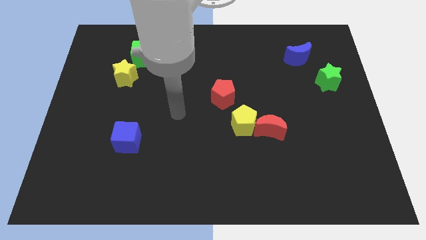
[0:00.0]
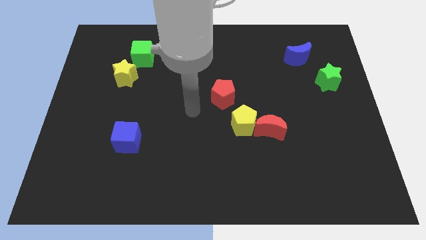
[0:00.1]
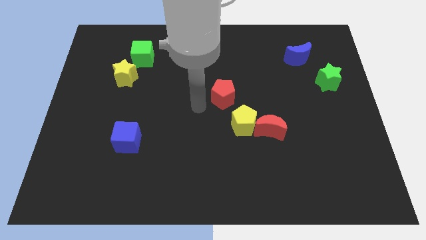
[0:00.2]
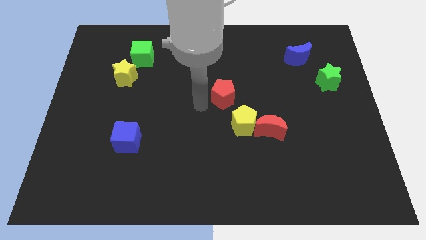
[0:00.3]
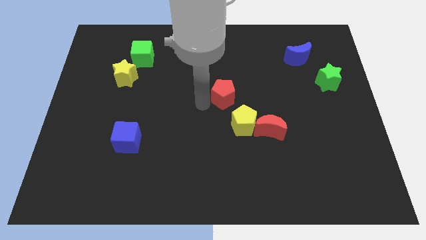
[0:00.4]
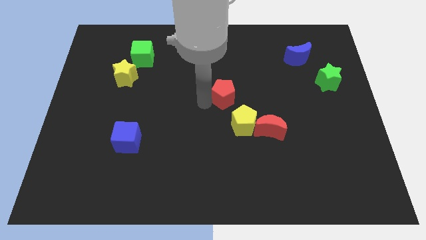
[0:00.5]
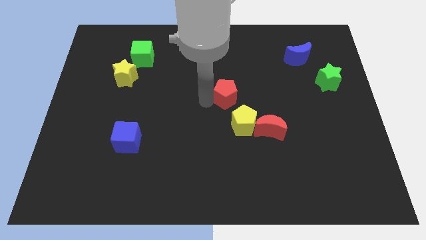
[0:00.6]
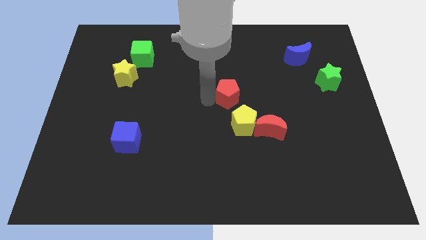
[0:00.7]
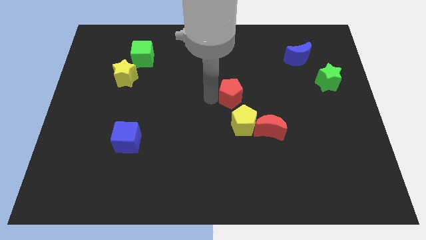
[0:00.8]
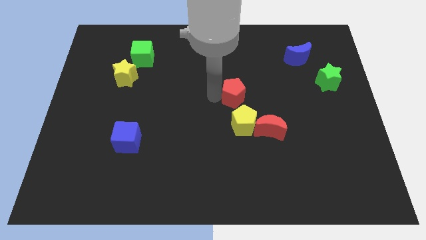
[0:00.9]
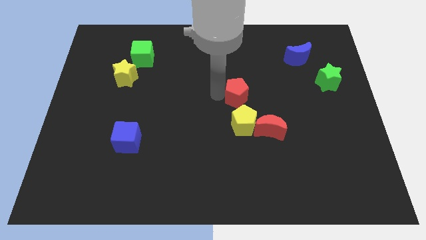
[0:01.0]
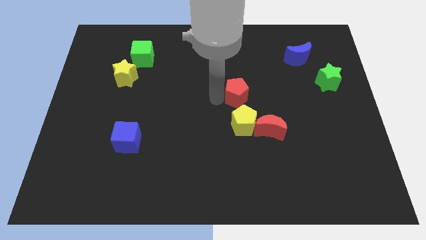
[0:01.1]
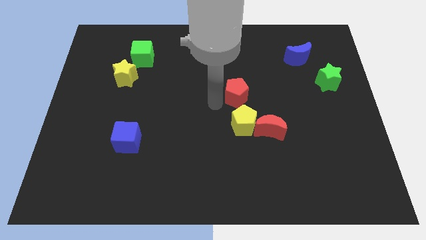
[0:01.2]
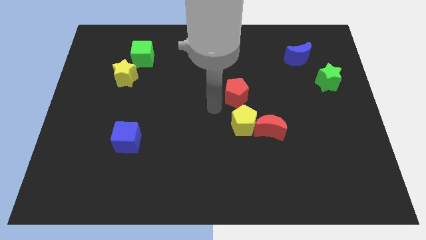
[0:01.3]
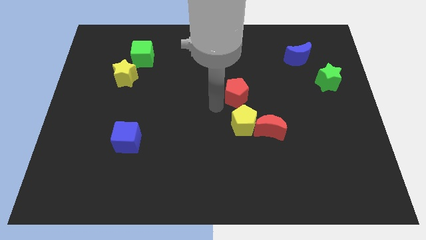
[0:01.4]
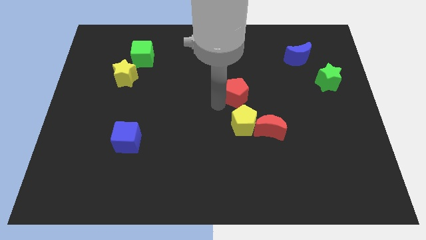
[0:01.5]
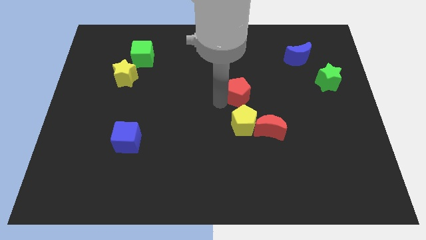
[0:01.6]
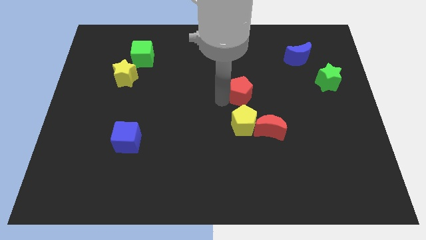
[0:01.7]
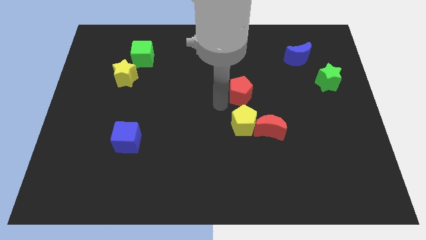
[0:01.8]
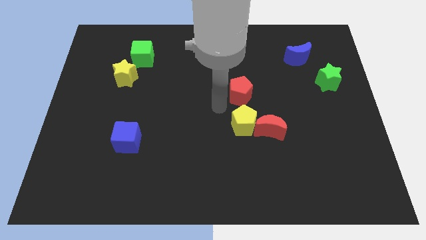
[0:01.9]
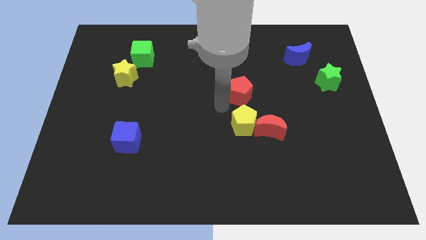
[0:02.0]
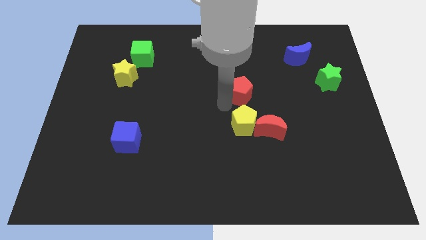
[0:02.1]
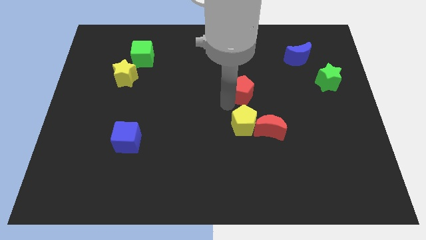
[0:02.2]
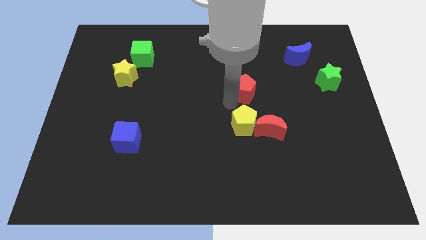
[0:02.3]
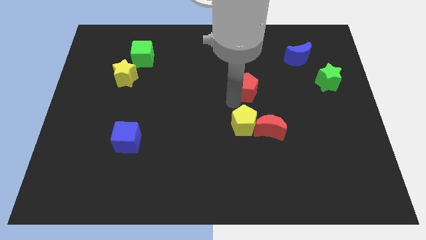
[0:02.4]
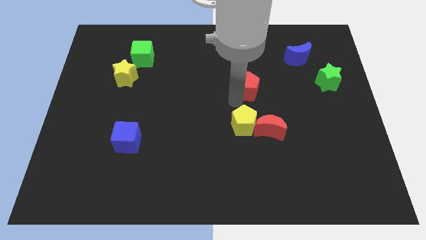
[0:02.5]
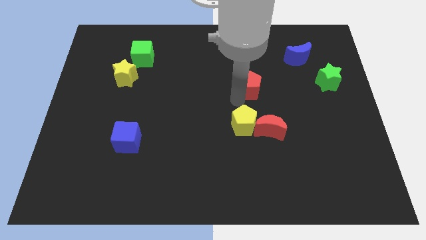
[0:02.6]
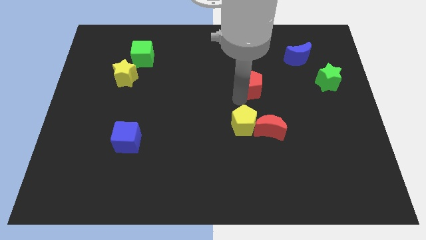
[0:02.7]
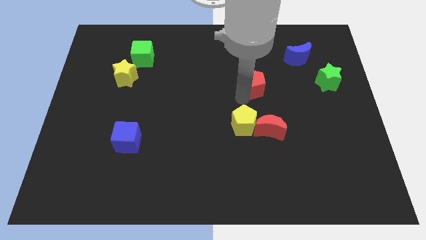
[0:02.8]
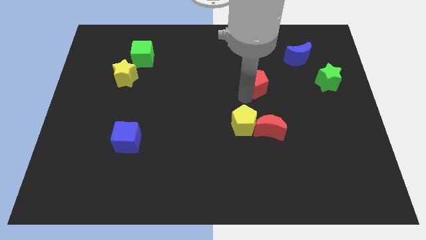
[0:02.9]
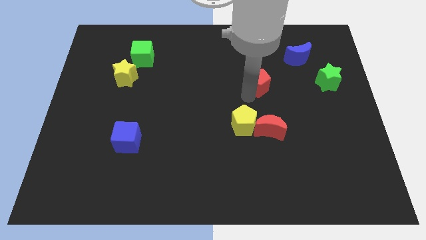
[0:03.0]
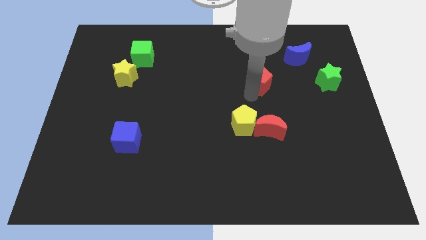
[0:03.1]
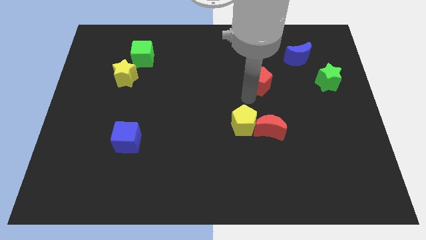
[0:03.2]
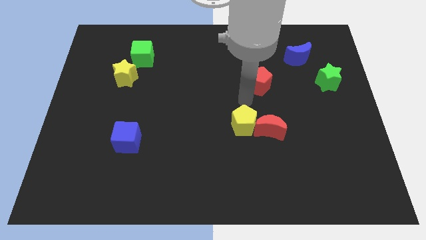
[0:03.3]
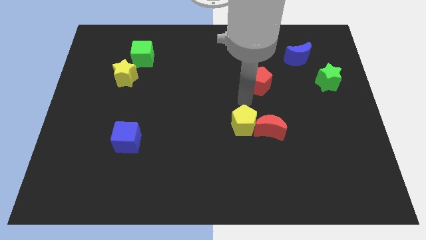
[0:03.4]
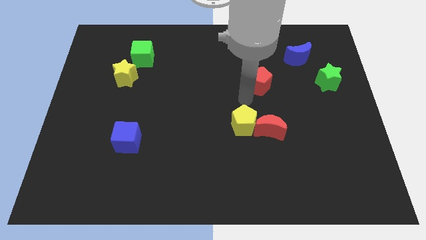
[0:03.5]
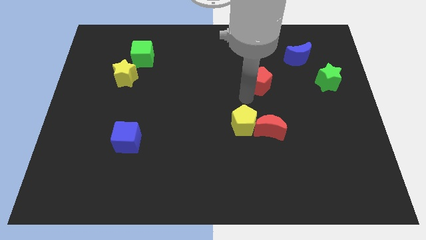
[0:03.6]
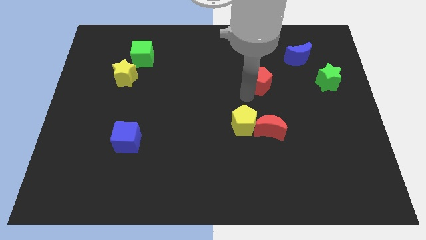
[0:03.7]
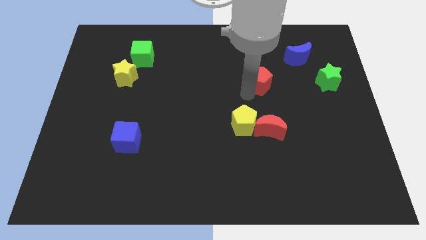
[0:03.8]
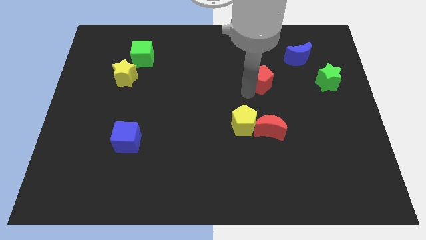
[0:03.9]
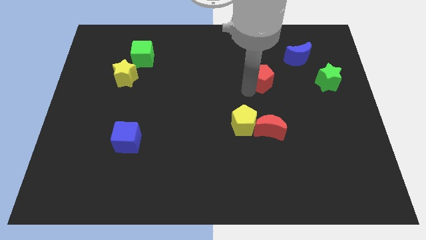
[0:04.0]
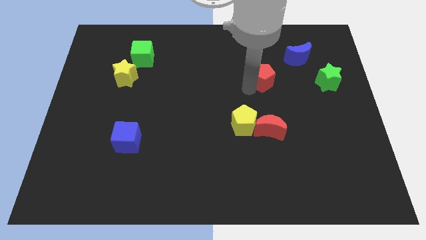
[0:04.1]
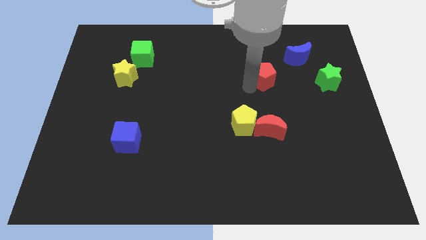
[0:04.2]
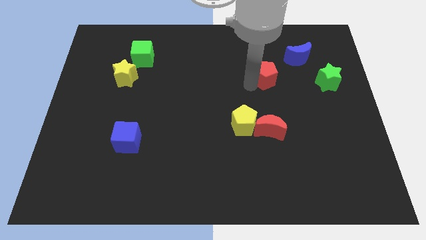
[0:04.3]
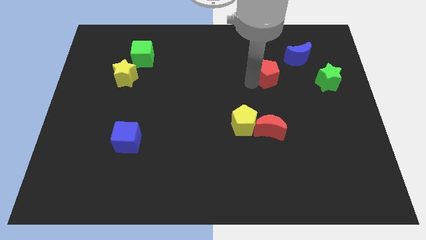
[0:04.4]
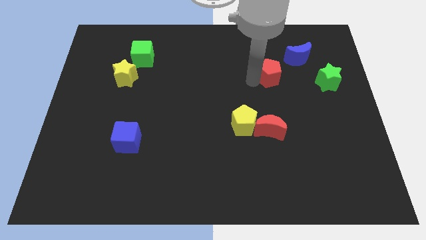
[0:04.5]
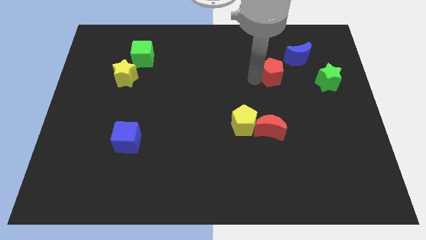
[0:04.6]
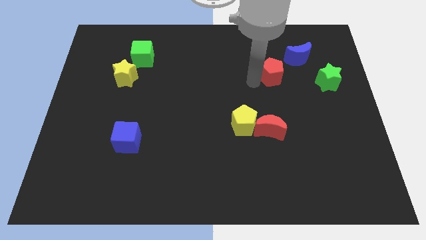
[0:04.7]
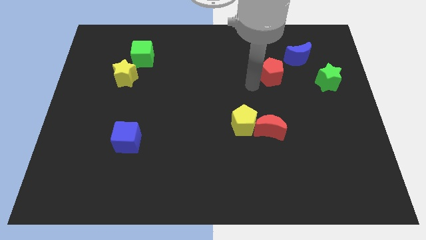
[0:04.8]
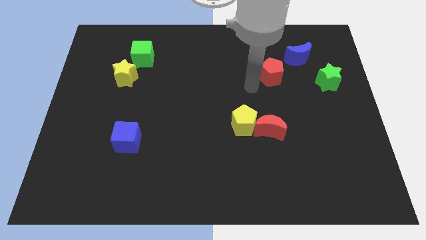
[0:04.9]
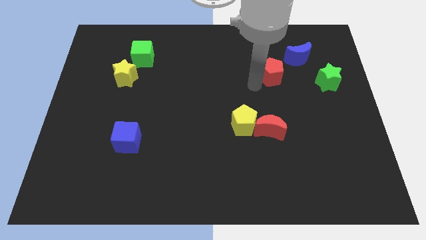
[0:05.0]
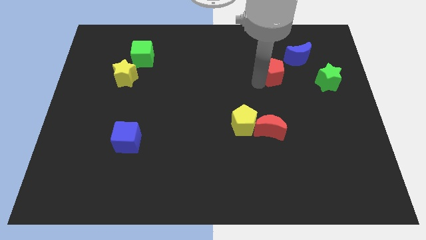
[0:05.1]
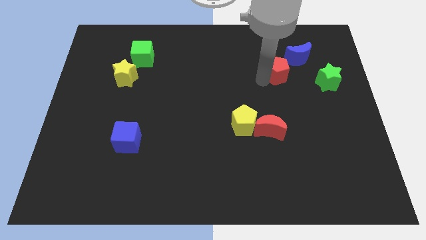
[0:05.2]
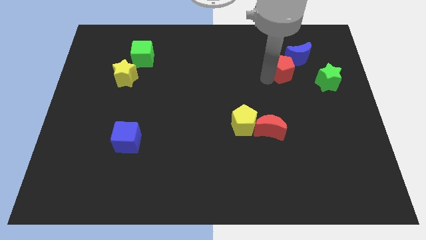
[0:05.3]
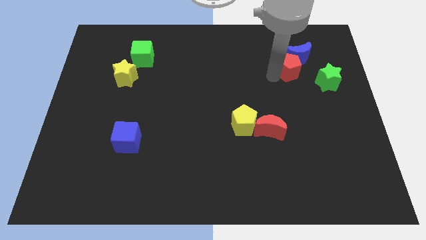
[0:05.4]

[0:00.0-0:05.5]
move the red pentagon next to the blue moon

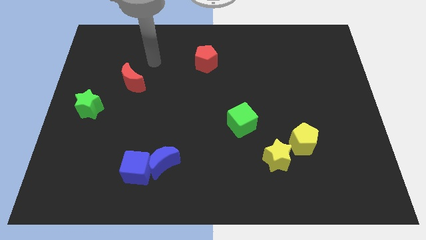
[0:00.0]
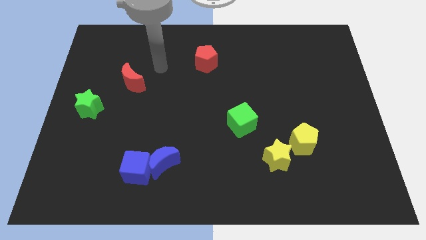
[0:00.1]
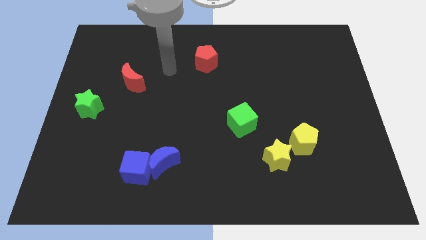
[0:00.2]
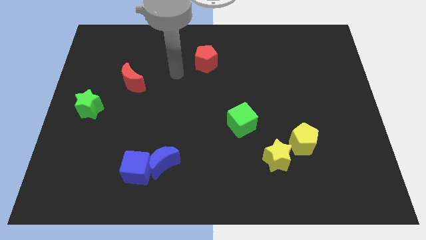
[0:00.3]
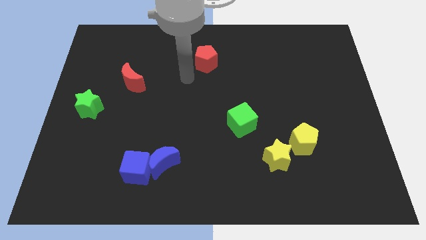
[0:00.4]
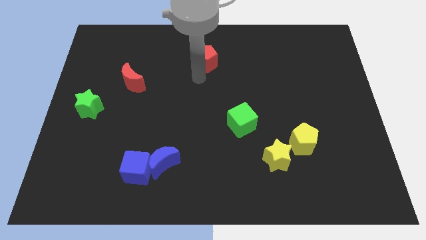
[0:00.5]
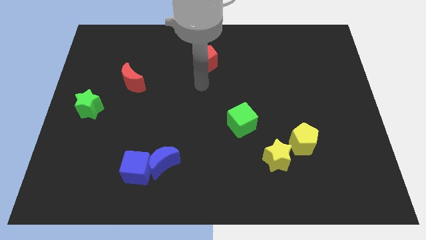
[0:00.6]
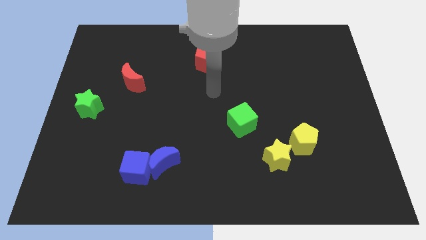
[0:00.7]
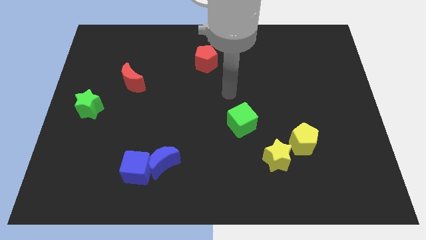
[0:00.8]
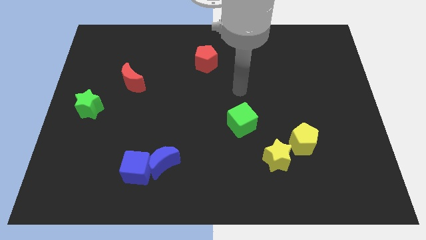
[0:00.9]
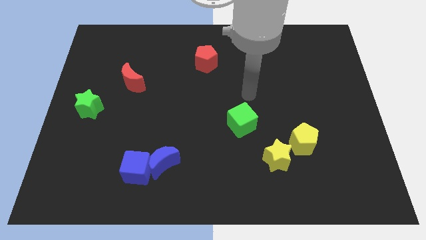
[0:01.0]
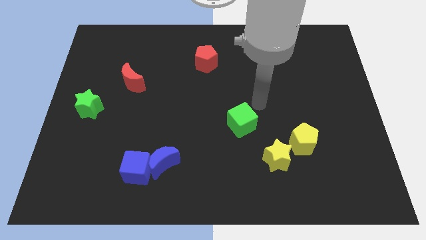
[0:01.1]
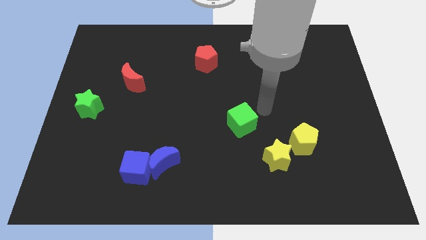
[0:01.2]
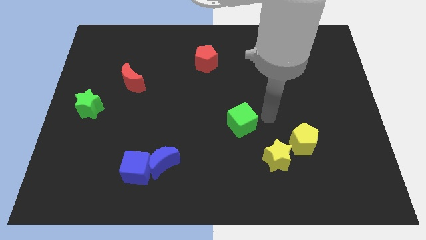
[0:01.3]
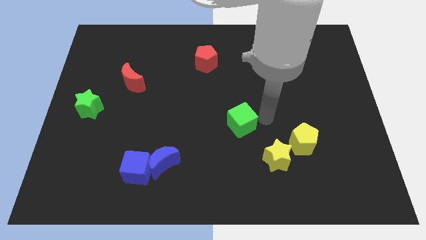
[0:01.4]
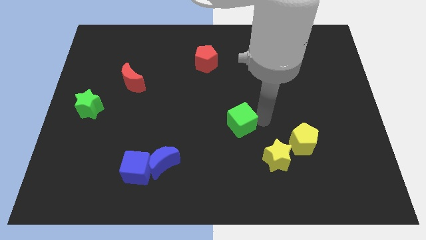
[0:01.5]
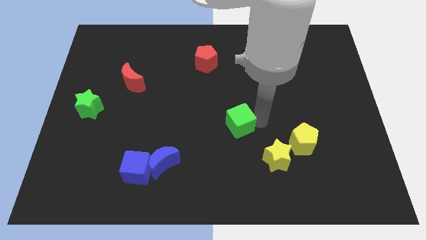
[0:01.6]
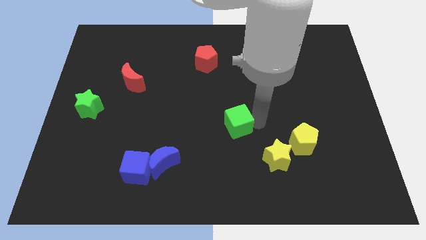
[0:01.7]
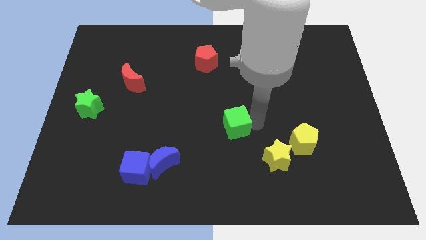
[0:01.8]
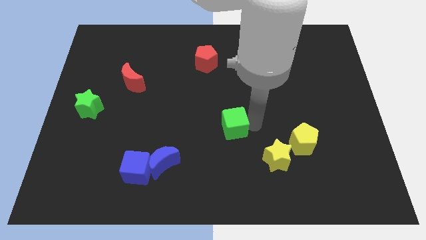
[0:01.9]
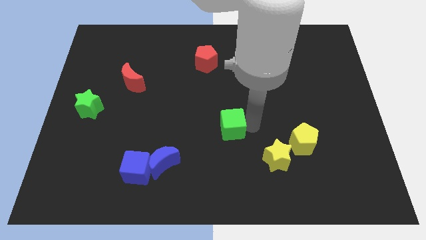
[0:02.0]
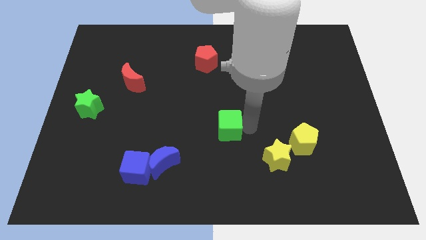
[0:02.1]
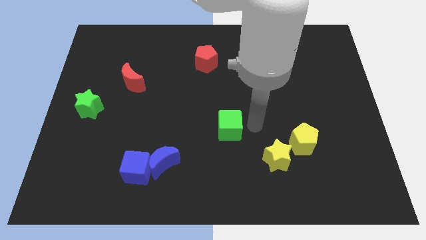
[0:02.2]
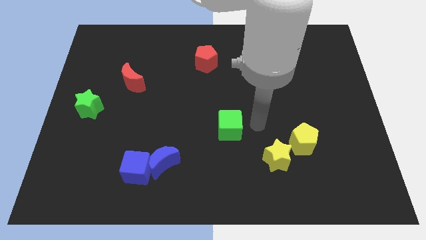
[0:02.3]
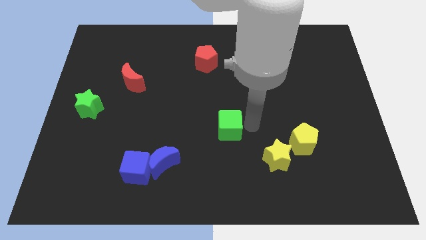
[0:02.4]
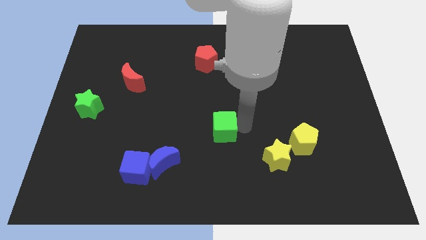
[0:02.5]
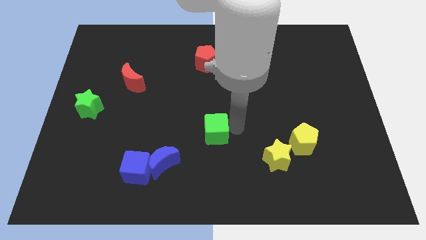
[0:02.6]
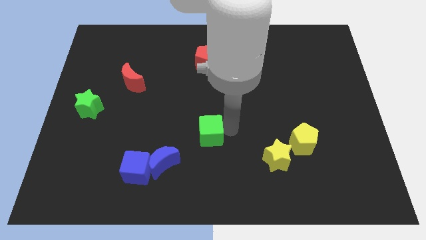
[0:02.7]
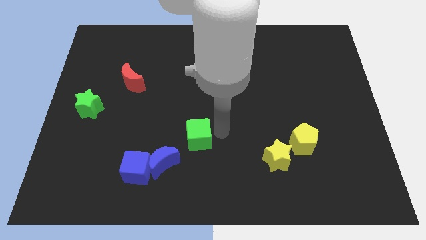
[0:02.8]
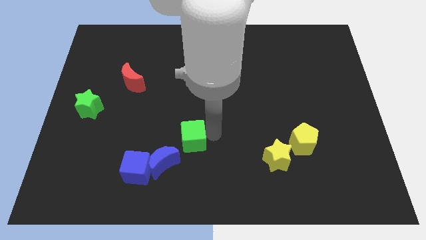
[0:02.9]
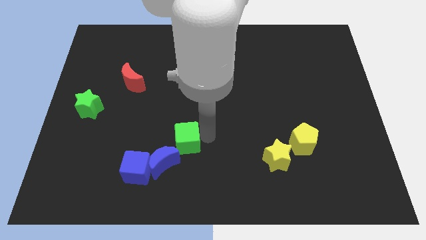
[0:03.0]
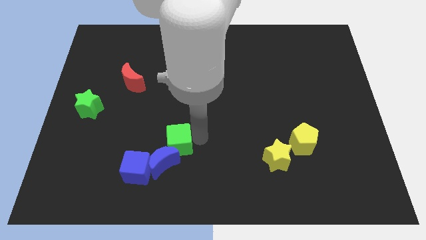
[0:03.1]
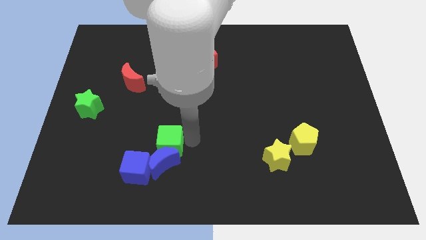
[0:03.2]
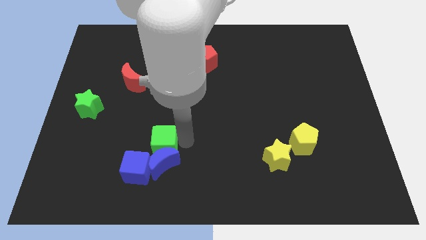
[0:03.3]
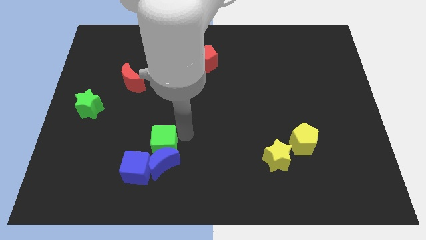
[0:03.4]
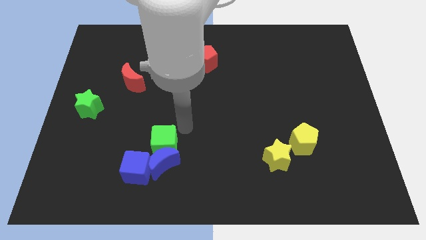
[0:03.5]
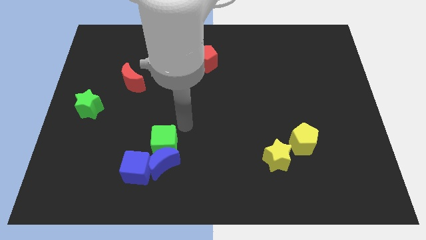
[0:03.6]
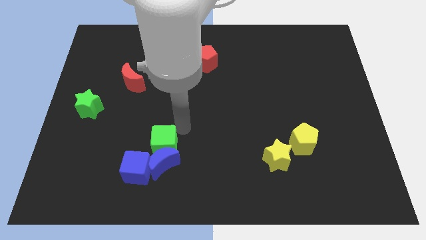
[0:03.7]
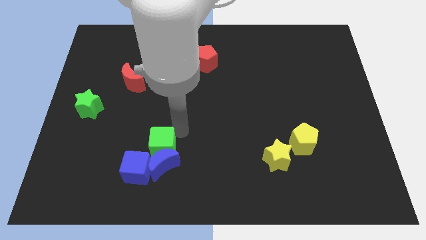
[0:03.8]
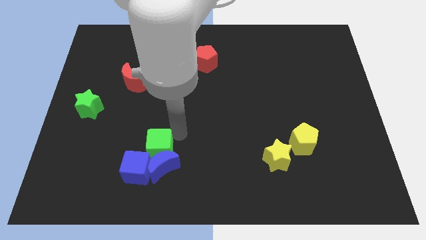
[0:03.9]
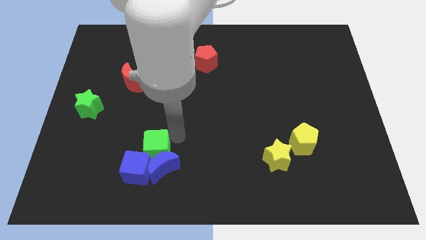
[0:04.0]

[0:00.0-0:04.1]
move the green cube close to the blue cube
